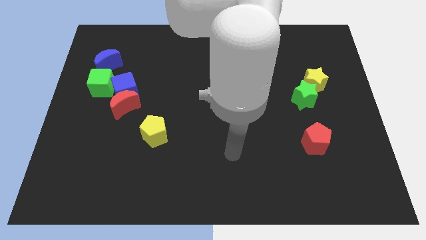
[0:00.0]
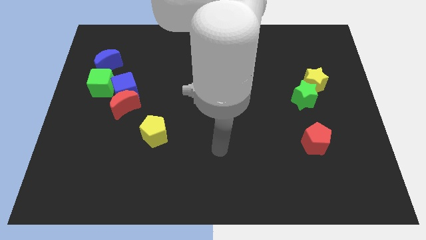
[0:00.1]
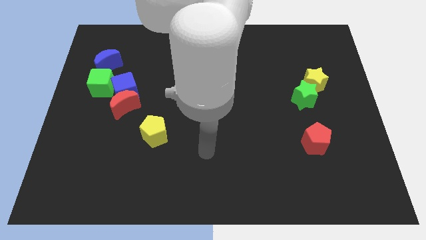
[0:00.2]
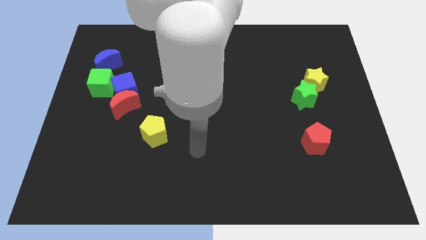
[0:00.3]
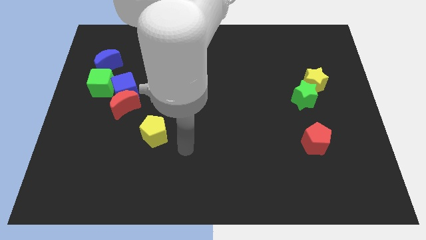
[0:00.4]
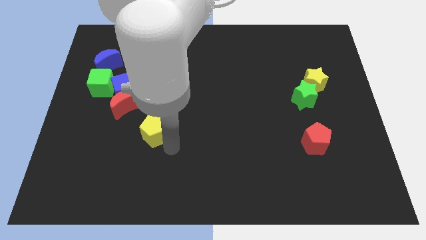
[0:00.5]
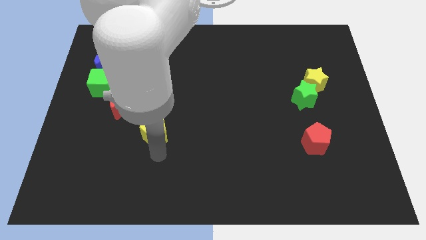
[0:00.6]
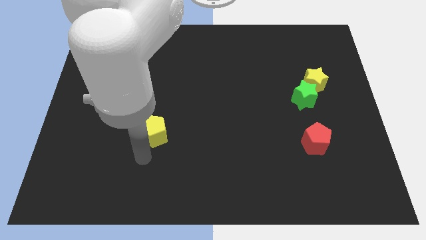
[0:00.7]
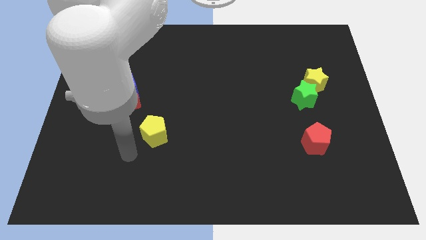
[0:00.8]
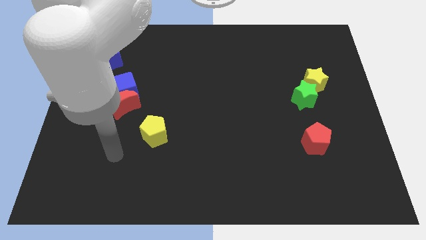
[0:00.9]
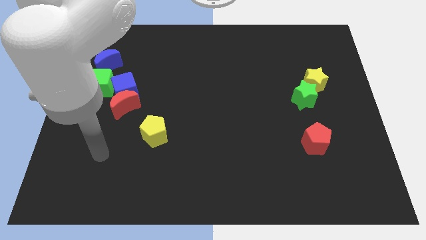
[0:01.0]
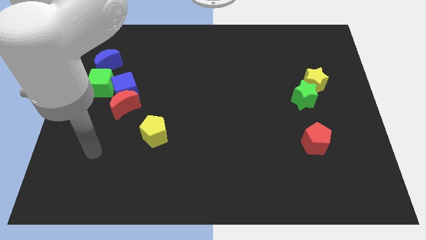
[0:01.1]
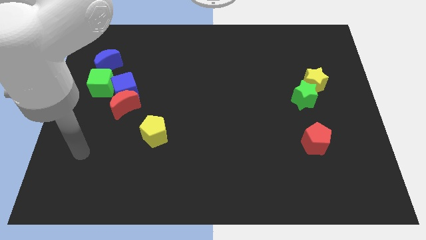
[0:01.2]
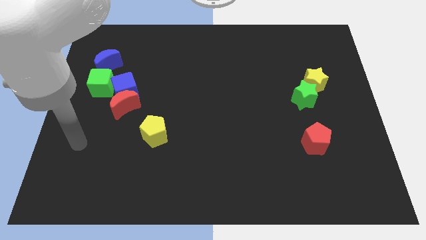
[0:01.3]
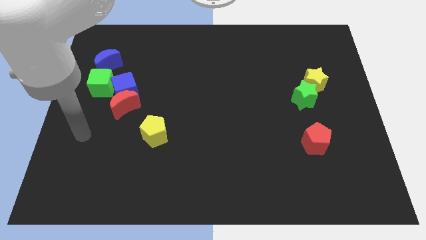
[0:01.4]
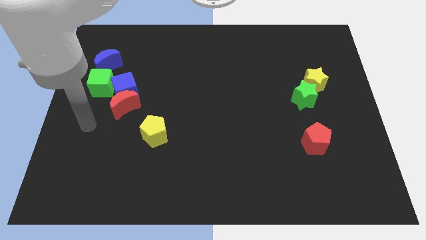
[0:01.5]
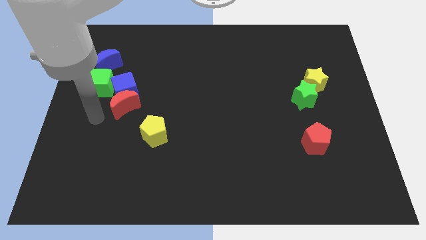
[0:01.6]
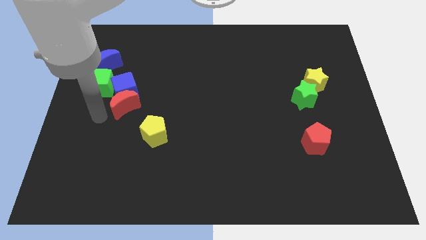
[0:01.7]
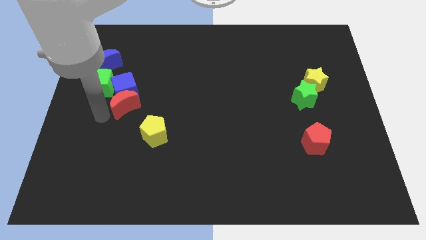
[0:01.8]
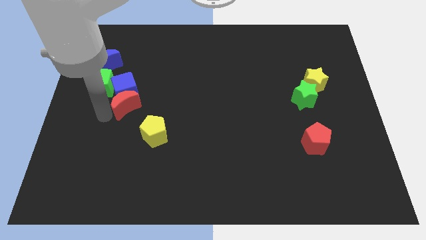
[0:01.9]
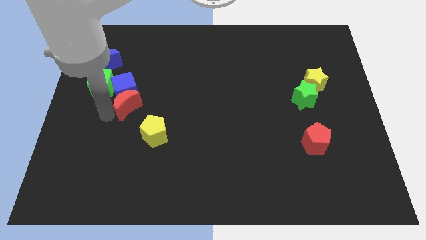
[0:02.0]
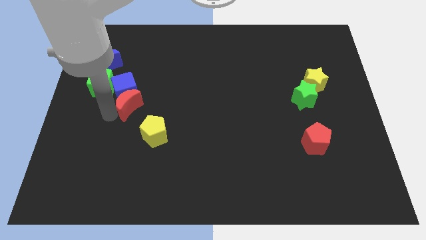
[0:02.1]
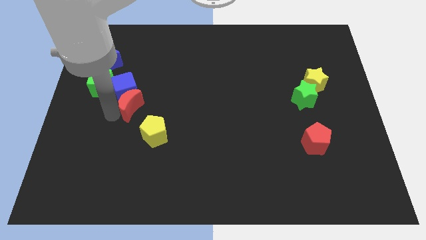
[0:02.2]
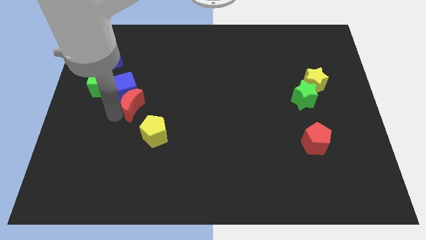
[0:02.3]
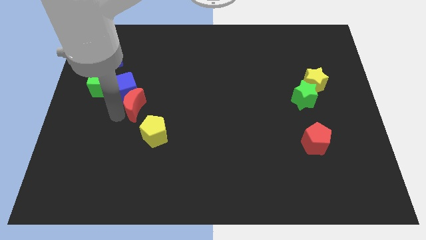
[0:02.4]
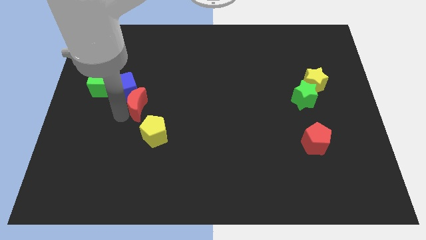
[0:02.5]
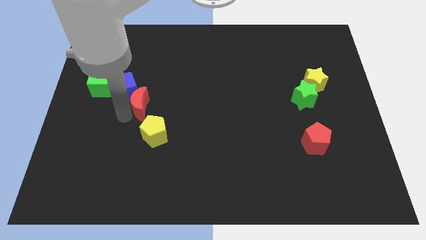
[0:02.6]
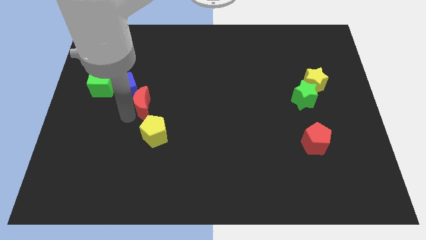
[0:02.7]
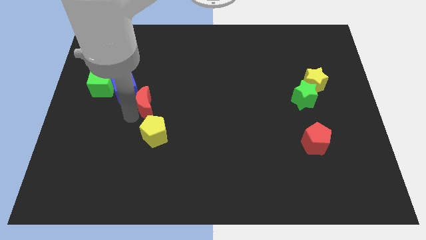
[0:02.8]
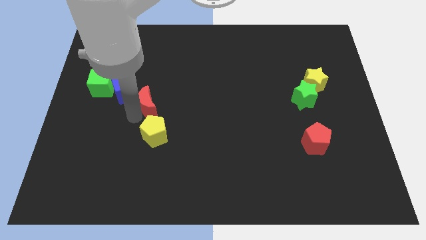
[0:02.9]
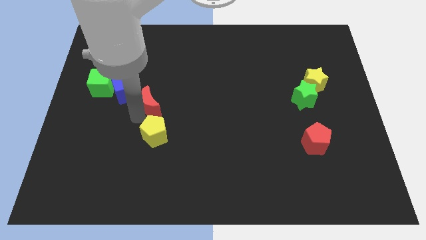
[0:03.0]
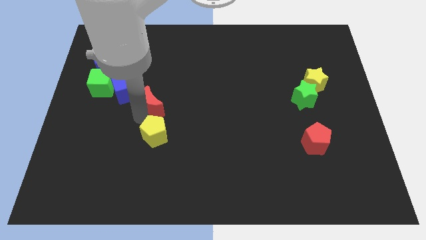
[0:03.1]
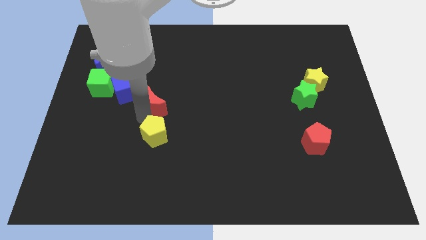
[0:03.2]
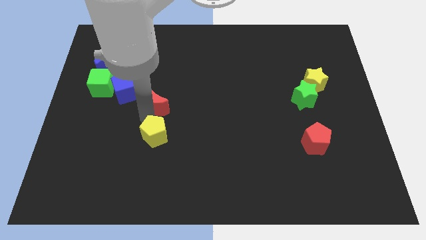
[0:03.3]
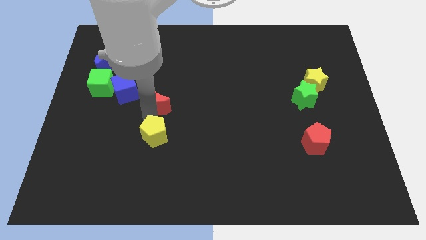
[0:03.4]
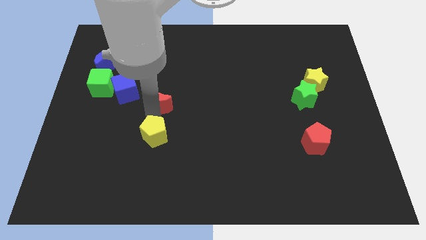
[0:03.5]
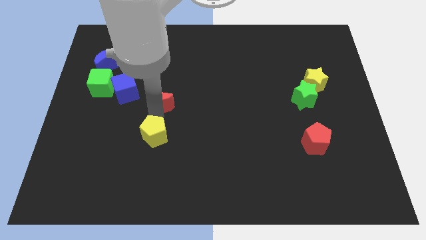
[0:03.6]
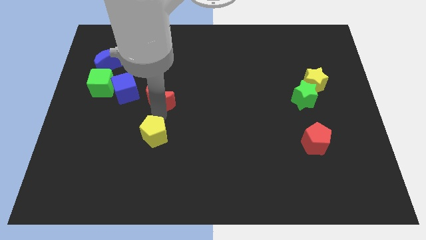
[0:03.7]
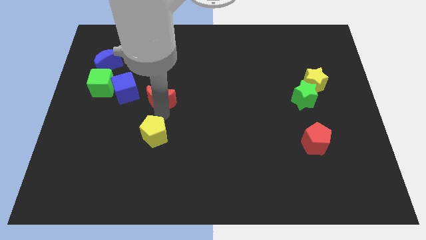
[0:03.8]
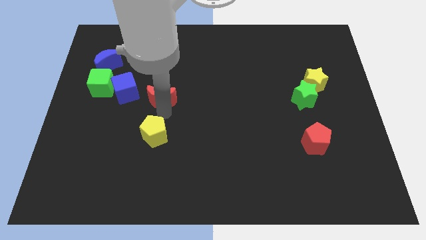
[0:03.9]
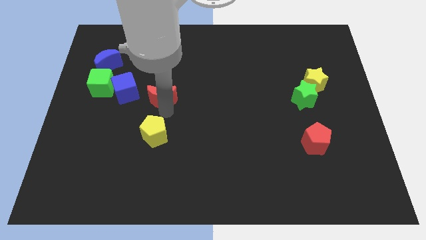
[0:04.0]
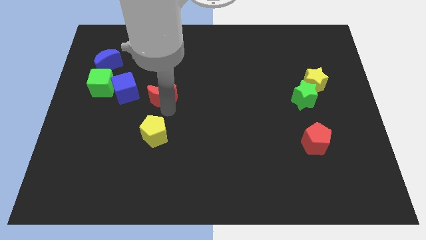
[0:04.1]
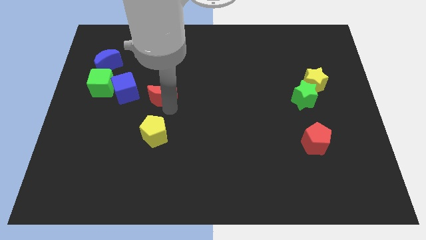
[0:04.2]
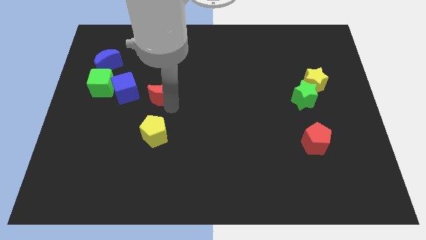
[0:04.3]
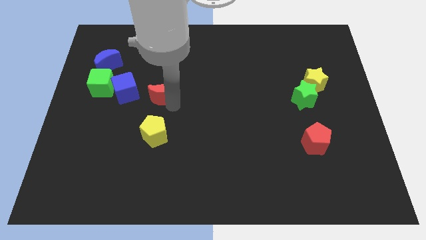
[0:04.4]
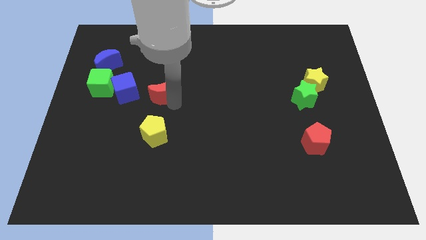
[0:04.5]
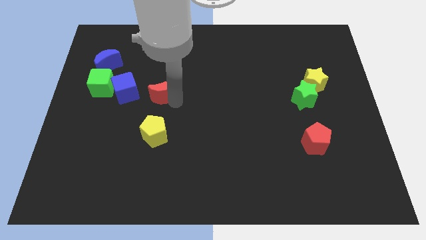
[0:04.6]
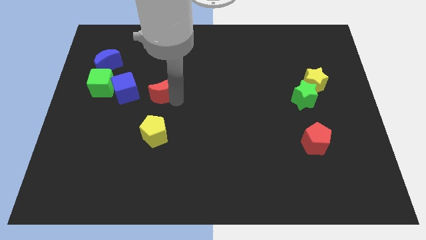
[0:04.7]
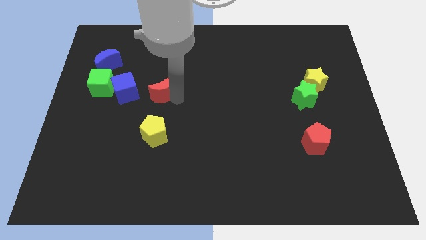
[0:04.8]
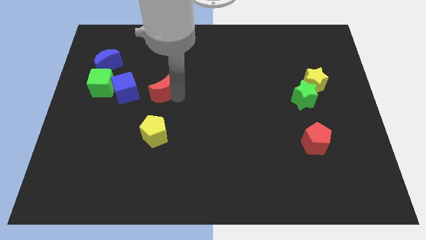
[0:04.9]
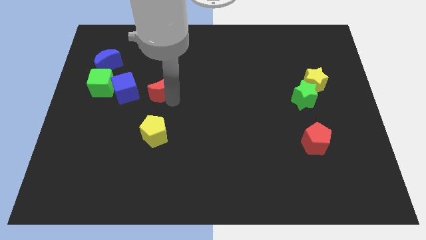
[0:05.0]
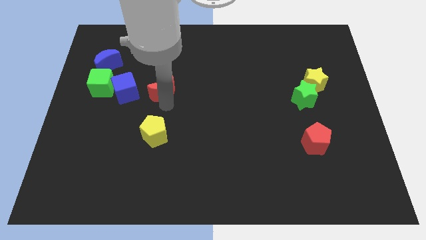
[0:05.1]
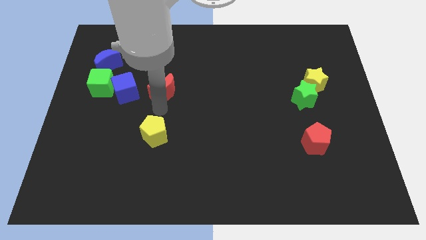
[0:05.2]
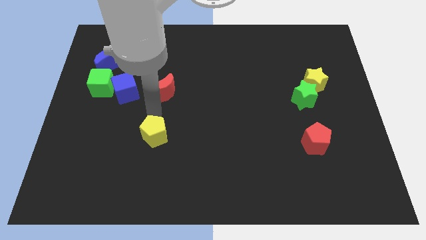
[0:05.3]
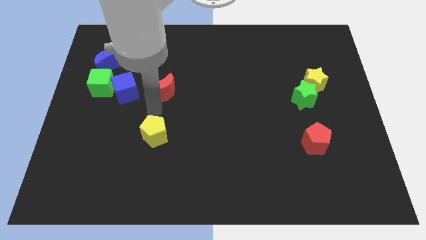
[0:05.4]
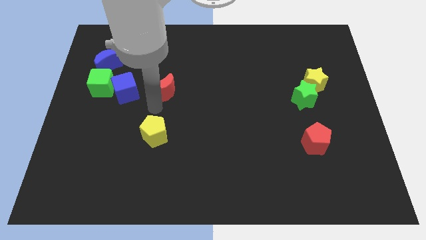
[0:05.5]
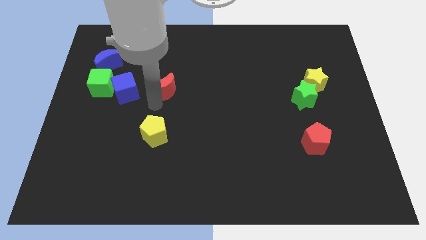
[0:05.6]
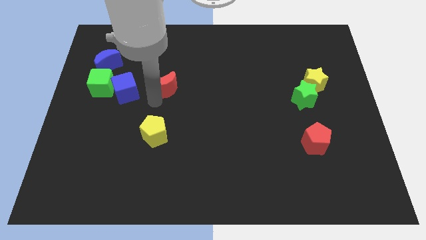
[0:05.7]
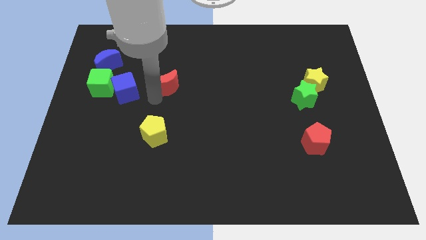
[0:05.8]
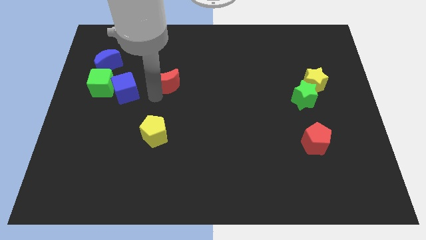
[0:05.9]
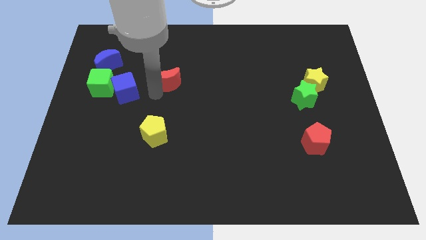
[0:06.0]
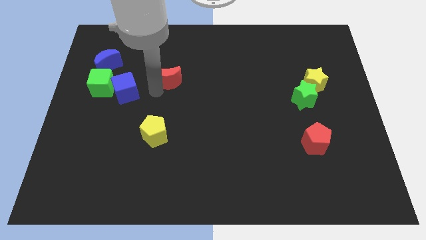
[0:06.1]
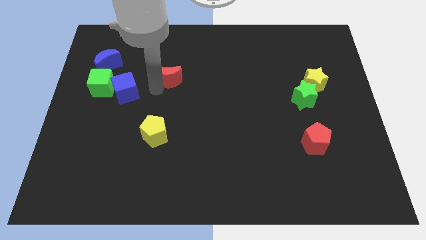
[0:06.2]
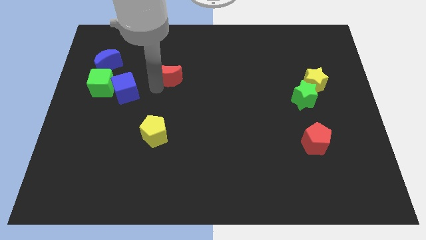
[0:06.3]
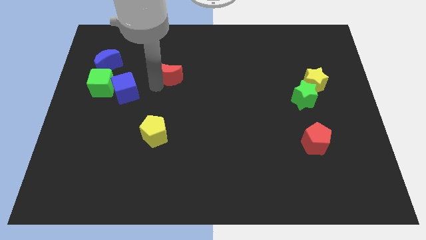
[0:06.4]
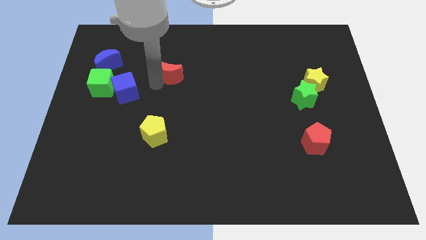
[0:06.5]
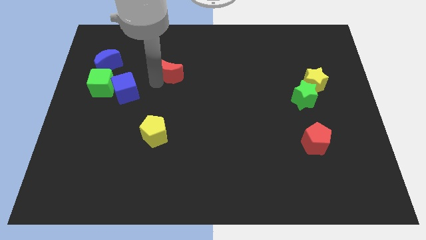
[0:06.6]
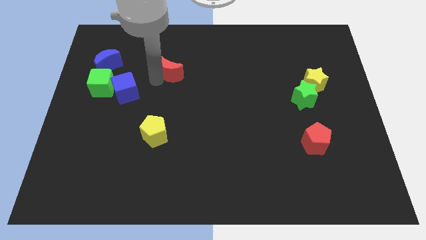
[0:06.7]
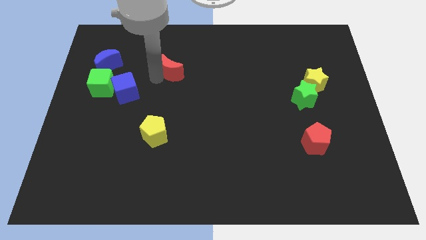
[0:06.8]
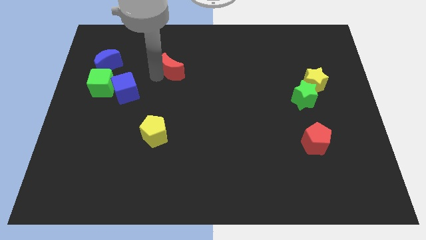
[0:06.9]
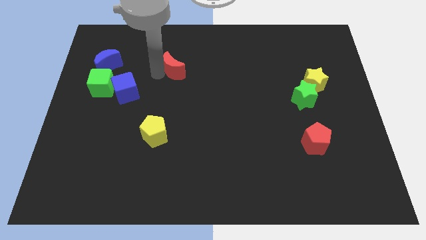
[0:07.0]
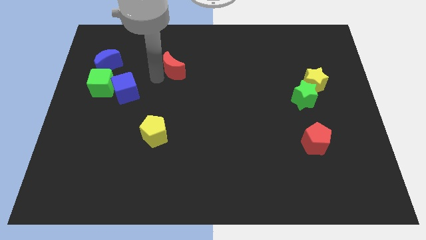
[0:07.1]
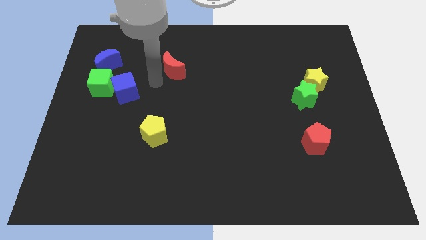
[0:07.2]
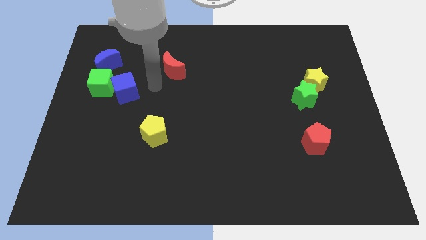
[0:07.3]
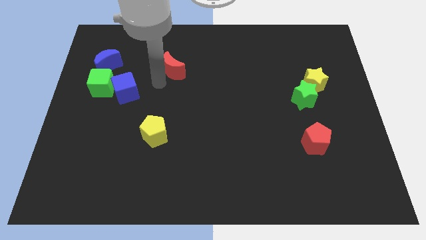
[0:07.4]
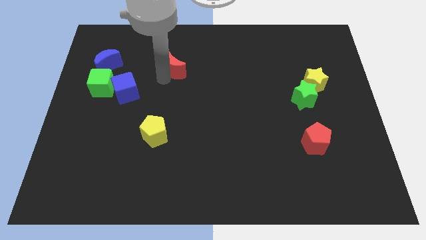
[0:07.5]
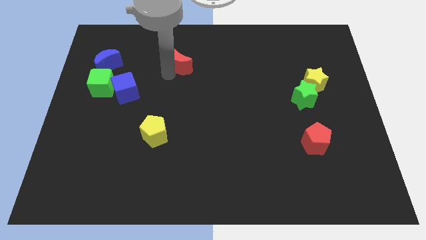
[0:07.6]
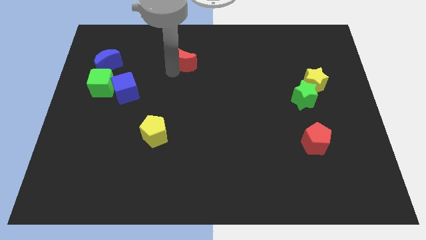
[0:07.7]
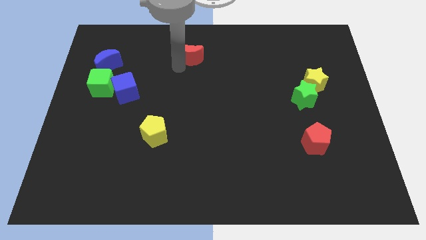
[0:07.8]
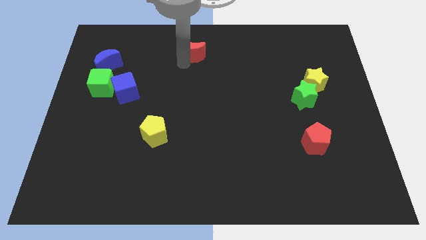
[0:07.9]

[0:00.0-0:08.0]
slide the red moon to the top side
